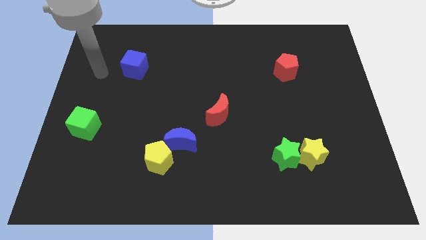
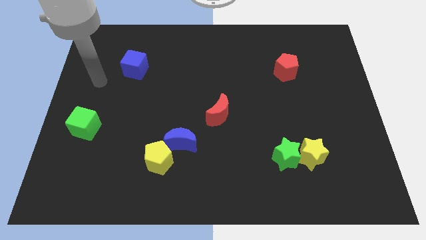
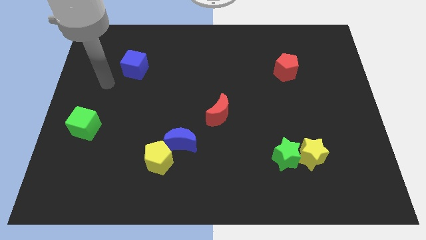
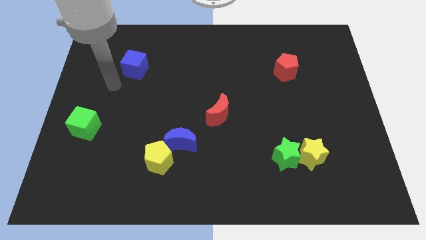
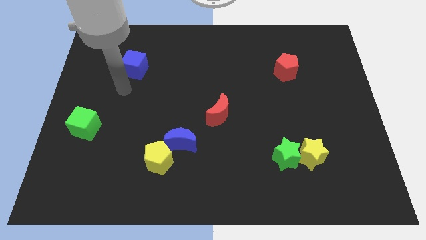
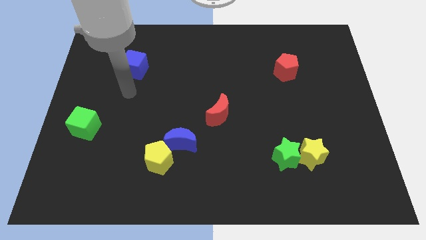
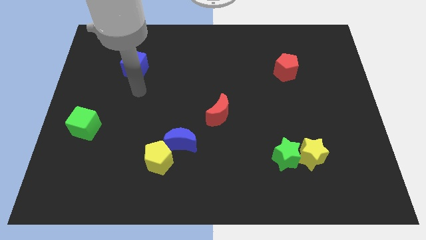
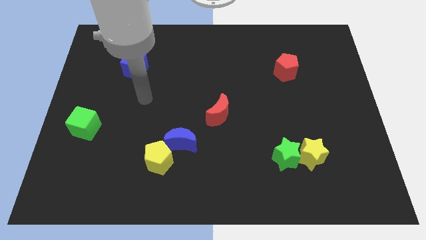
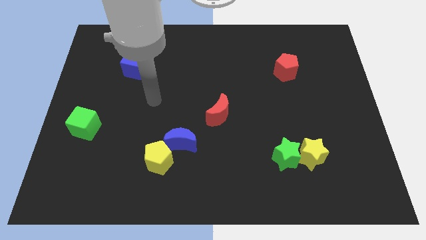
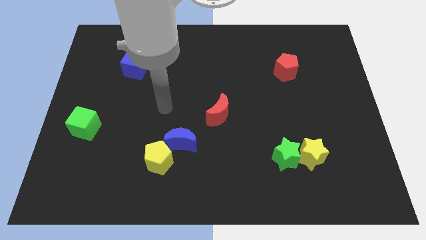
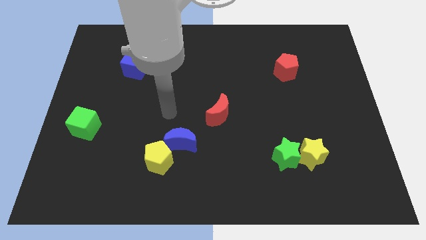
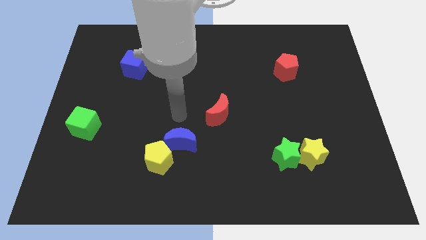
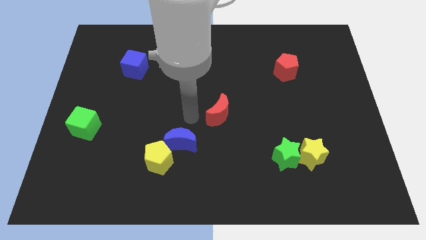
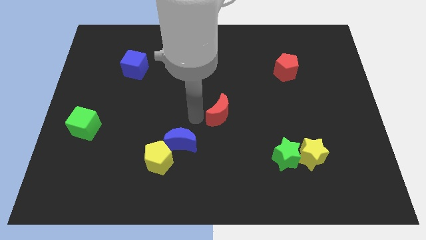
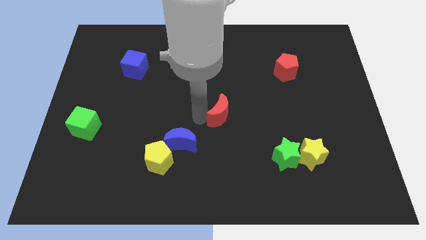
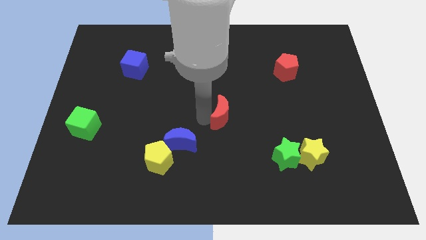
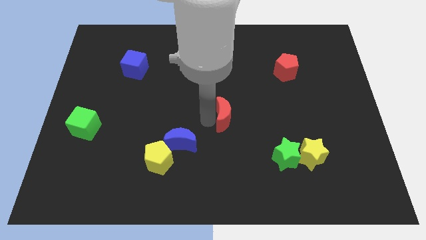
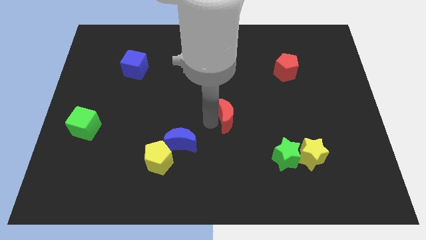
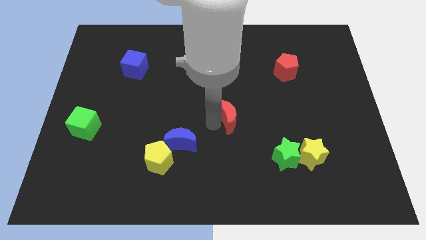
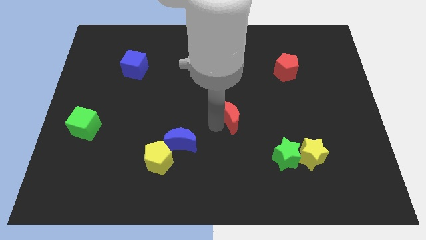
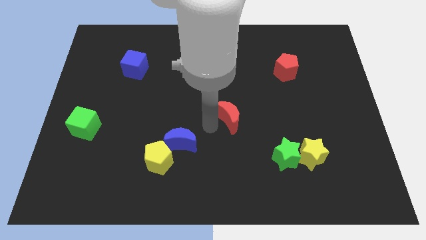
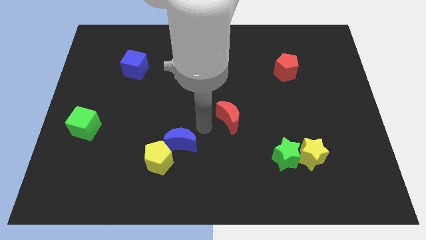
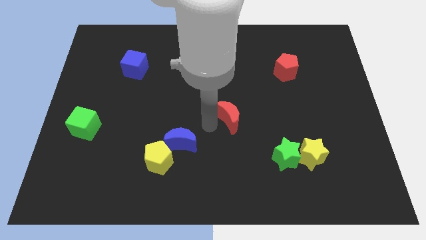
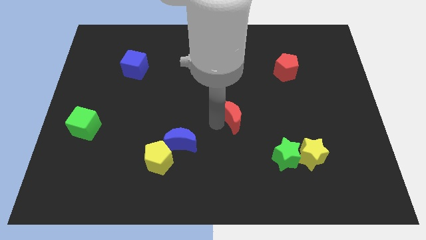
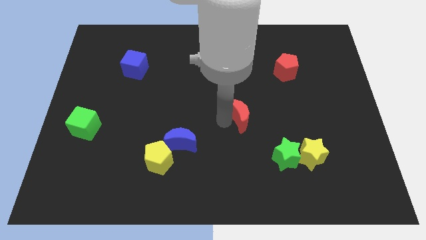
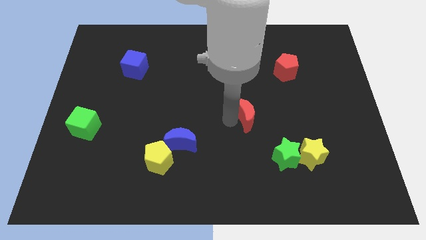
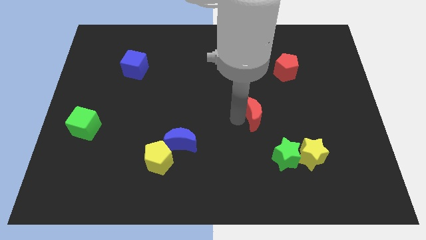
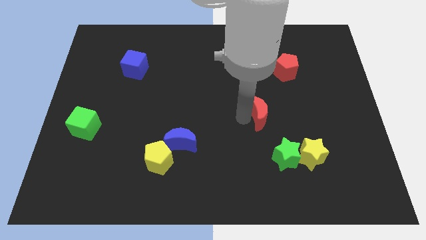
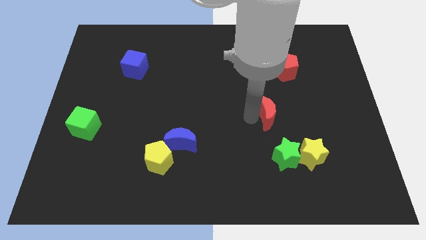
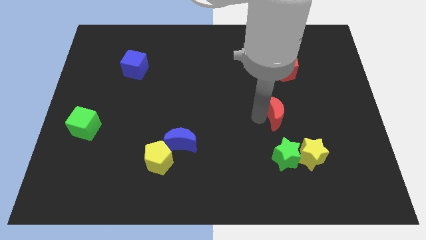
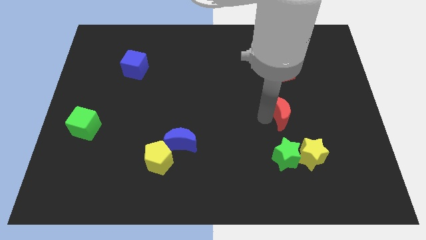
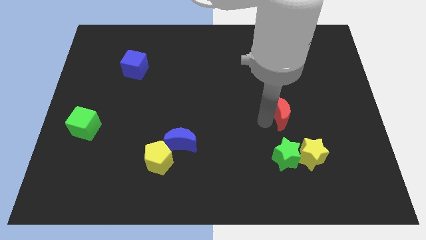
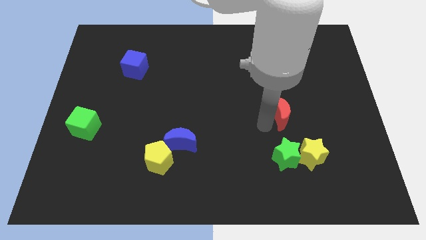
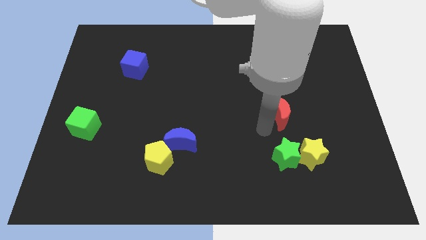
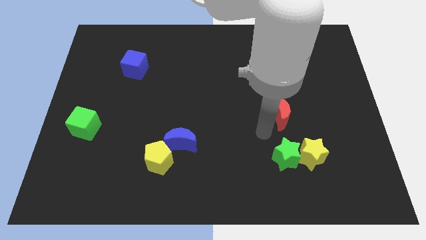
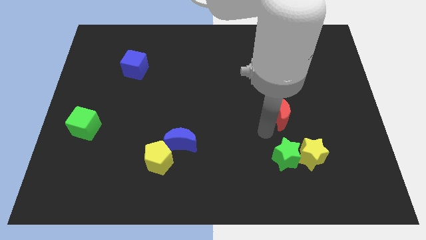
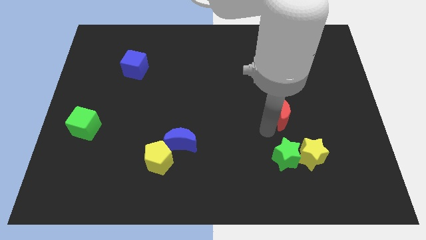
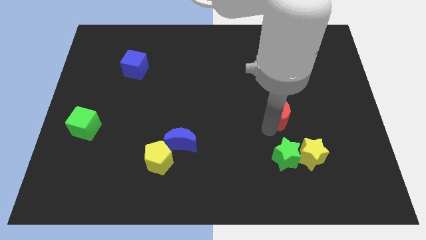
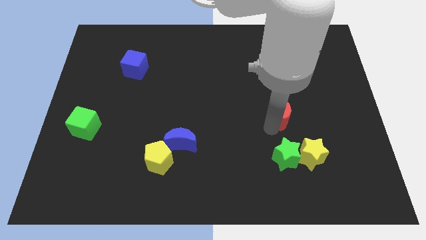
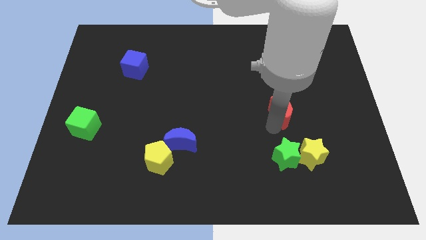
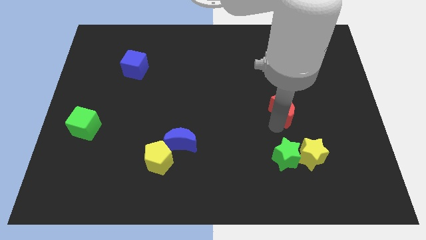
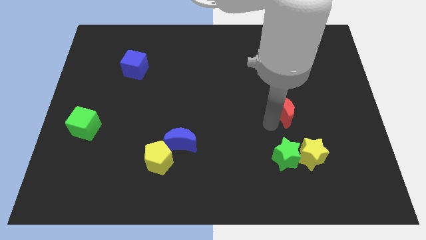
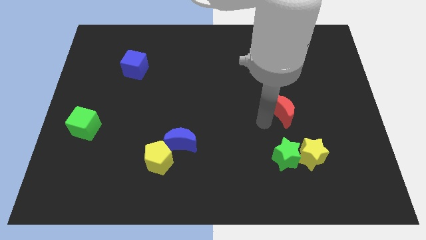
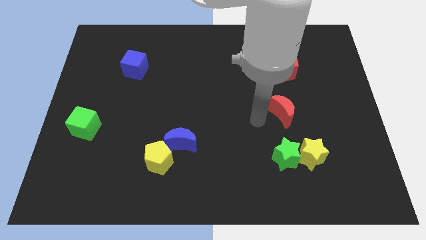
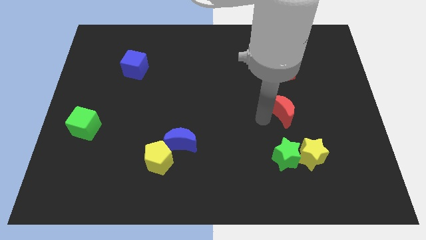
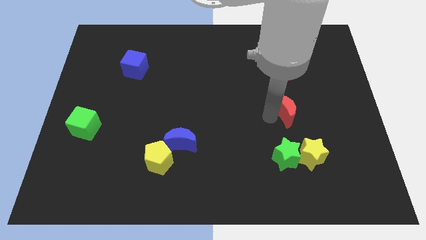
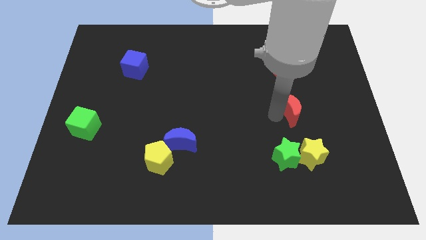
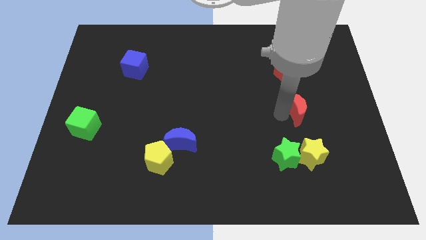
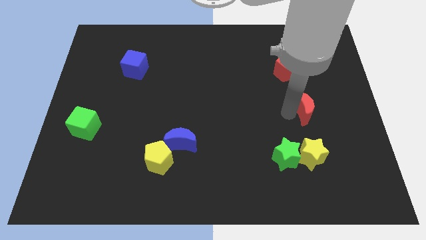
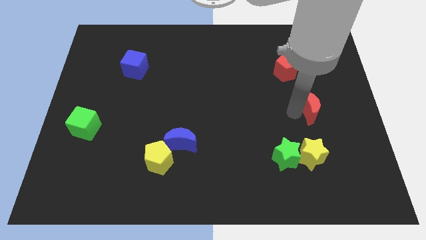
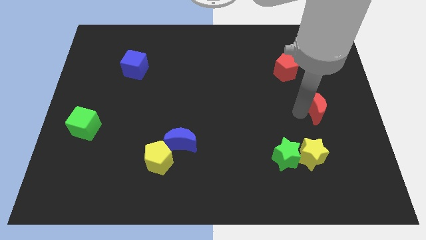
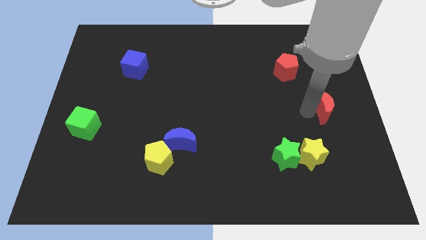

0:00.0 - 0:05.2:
put the red moon to the center right
